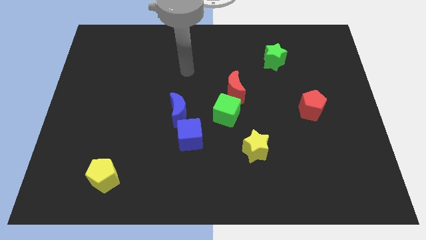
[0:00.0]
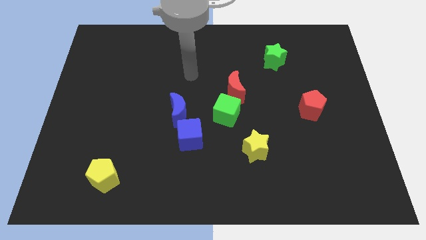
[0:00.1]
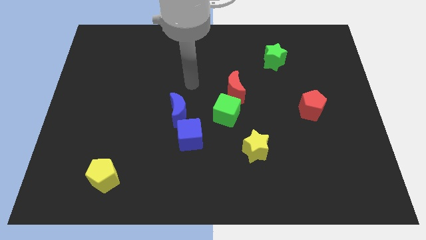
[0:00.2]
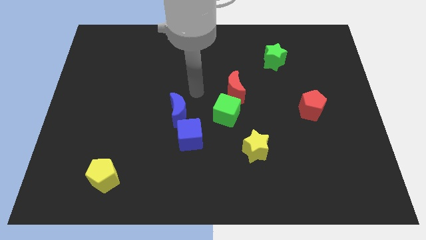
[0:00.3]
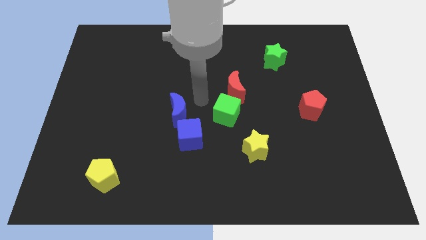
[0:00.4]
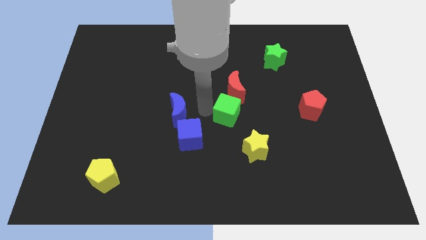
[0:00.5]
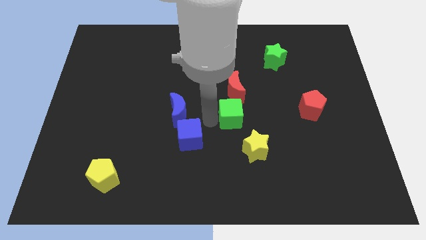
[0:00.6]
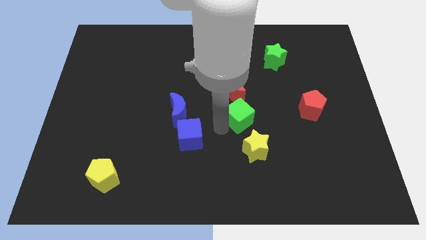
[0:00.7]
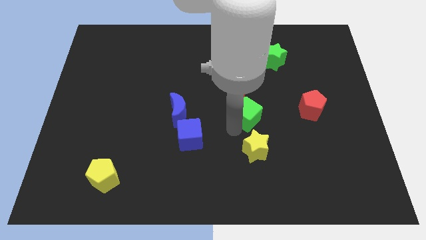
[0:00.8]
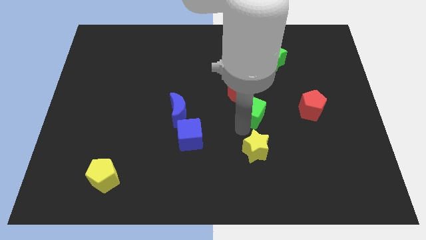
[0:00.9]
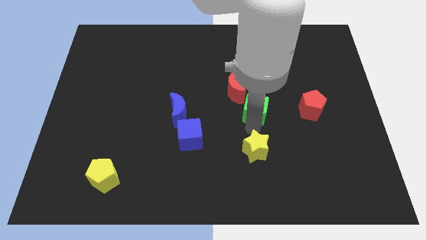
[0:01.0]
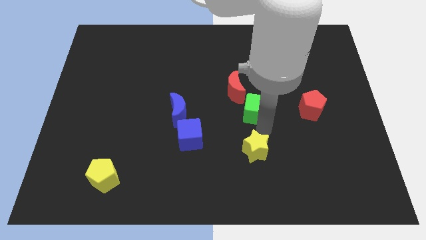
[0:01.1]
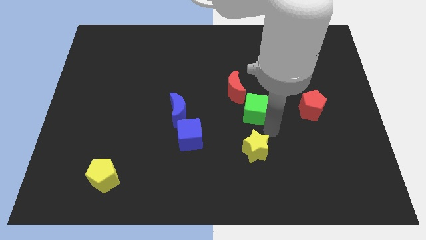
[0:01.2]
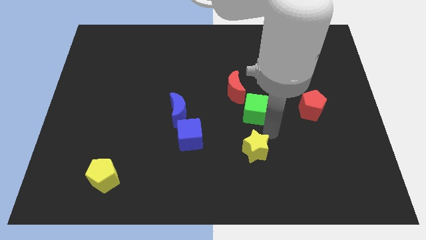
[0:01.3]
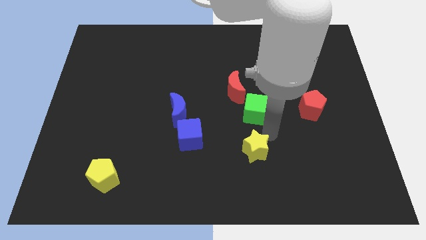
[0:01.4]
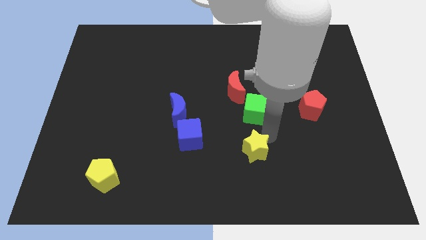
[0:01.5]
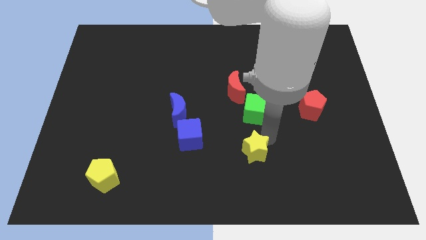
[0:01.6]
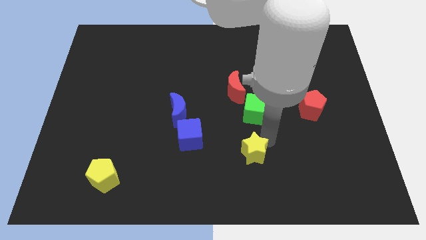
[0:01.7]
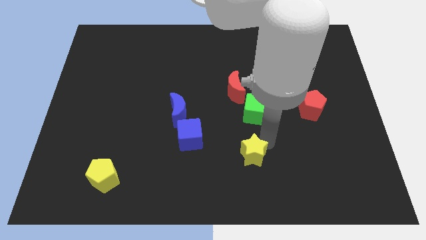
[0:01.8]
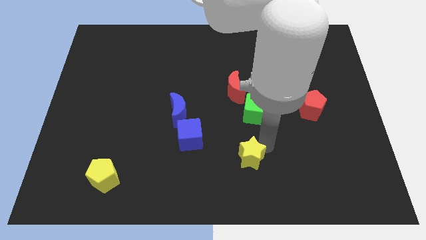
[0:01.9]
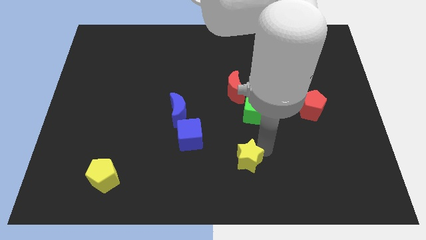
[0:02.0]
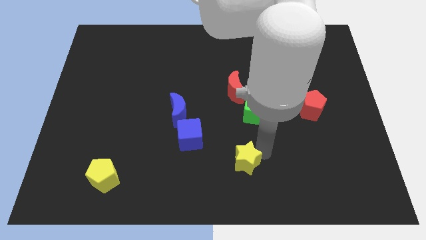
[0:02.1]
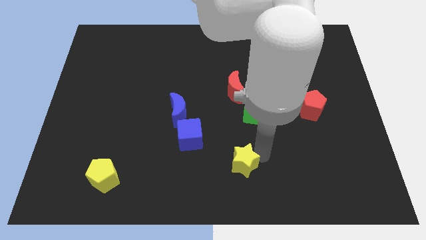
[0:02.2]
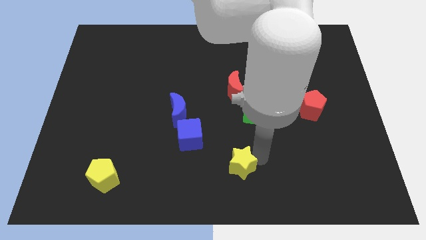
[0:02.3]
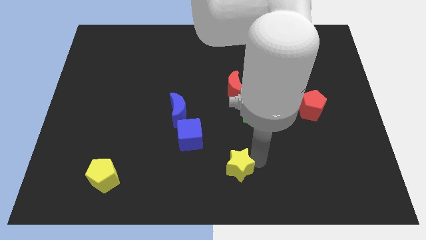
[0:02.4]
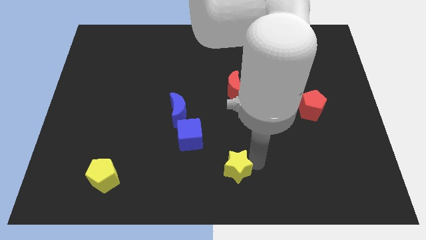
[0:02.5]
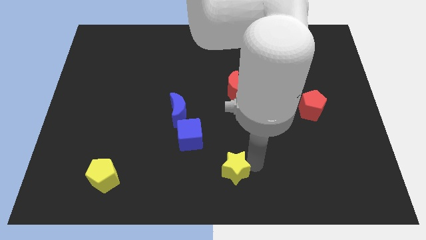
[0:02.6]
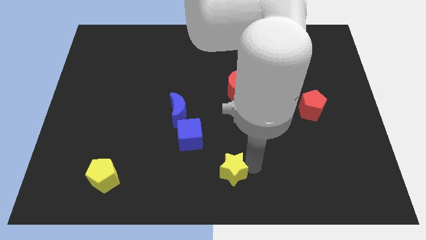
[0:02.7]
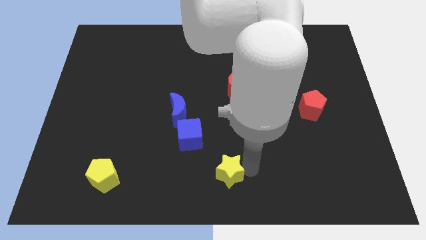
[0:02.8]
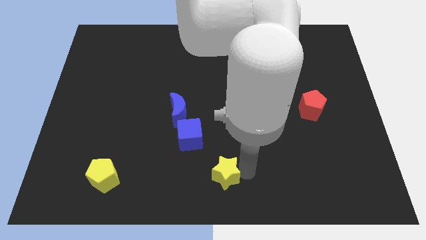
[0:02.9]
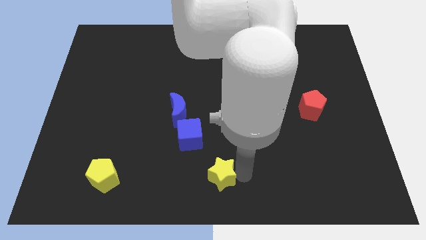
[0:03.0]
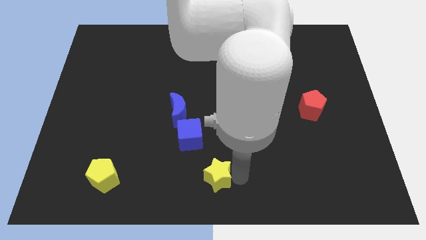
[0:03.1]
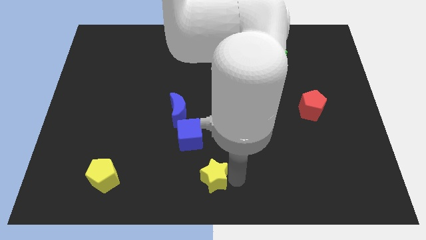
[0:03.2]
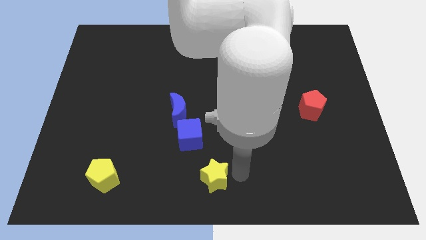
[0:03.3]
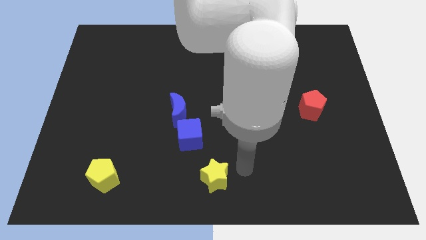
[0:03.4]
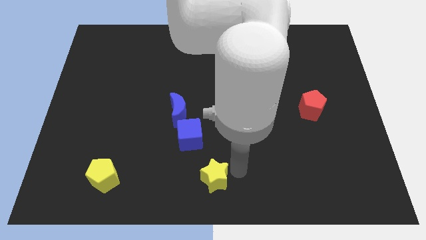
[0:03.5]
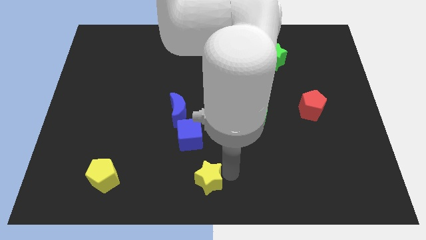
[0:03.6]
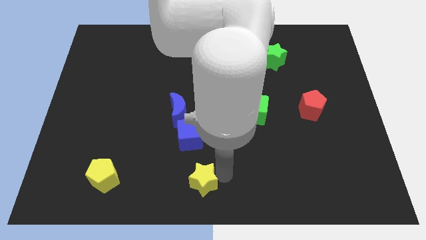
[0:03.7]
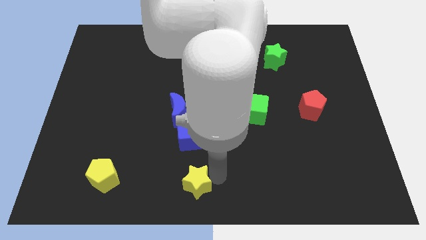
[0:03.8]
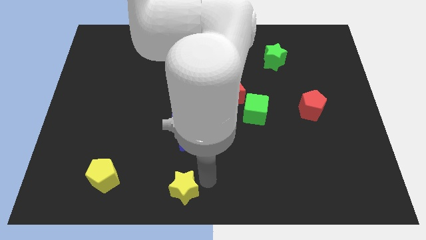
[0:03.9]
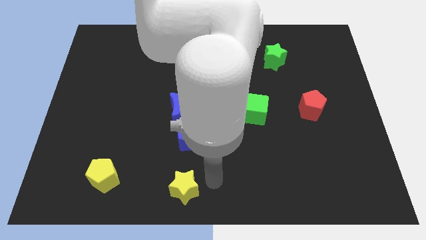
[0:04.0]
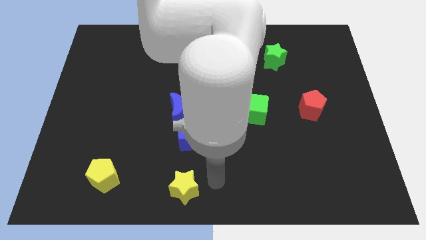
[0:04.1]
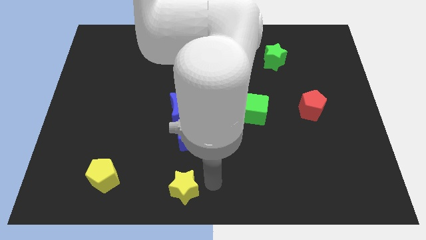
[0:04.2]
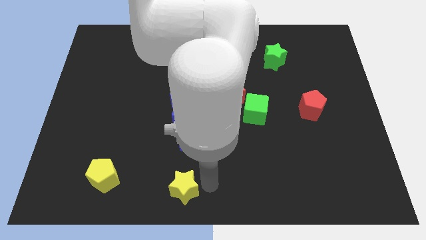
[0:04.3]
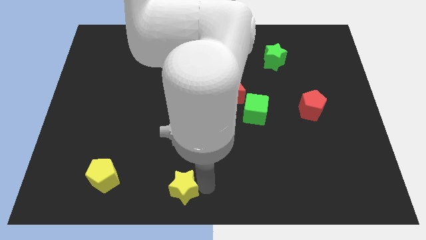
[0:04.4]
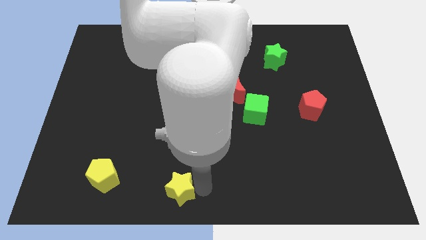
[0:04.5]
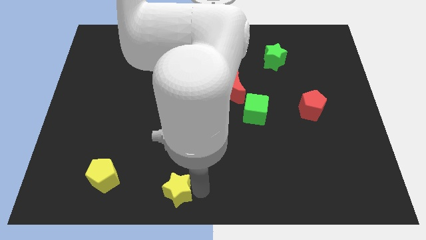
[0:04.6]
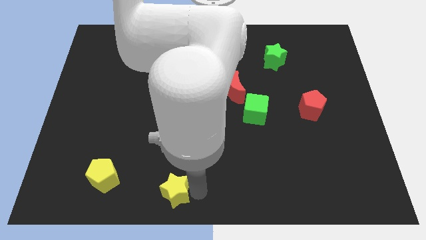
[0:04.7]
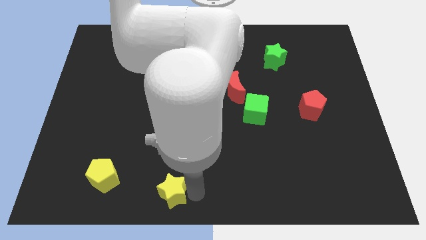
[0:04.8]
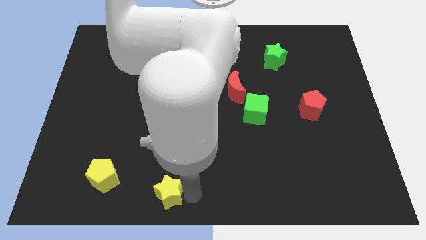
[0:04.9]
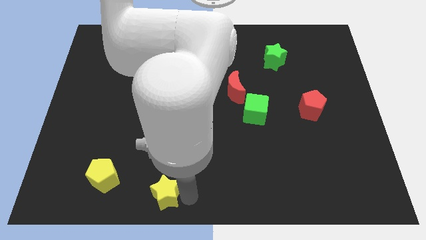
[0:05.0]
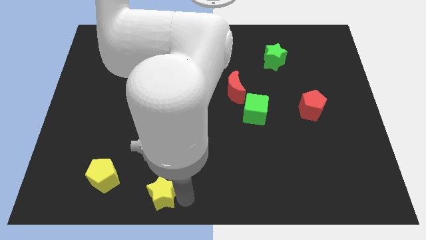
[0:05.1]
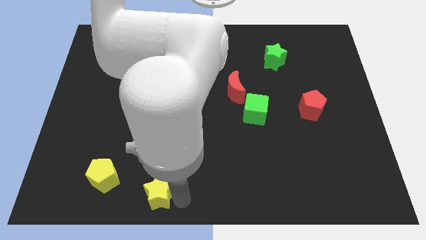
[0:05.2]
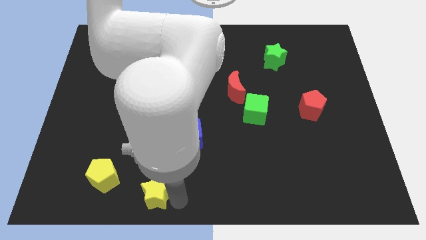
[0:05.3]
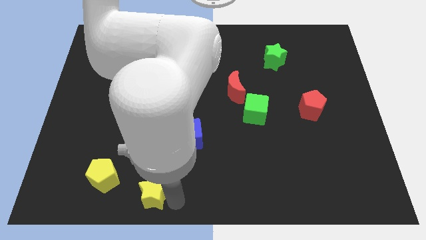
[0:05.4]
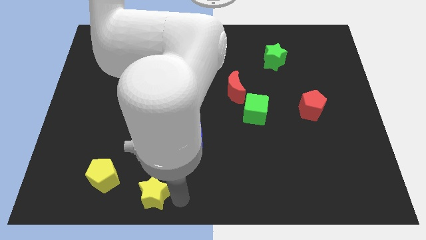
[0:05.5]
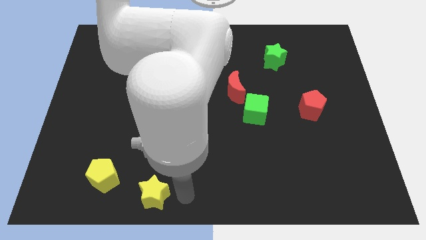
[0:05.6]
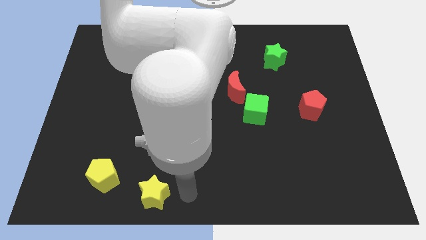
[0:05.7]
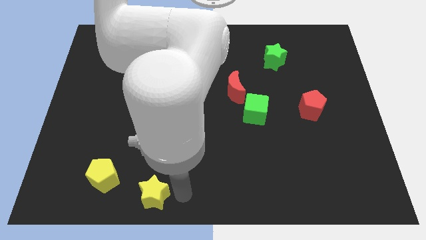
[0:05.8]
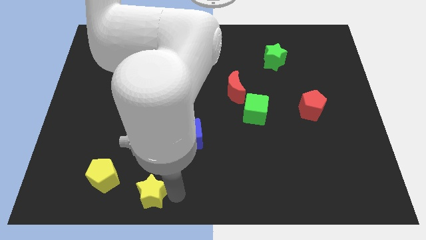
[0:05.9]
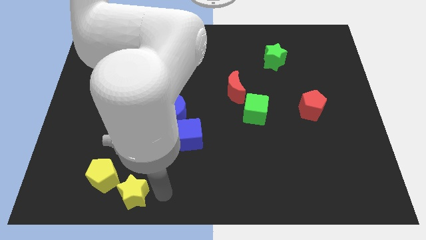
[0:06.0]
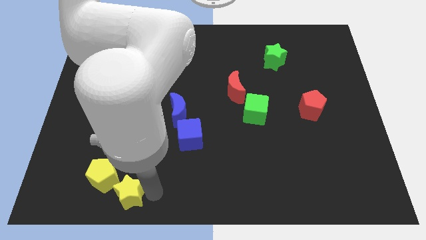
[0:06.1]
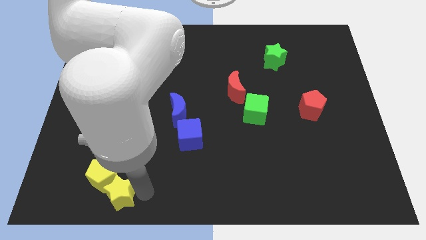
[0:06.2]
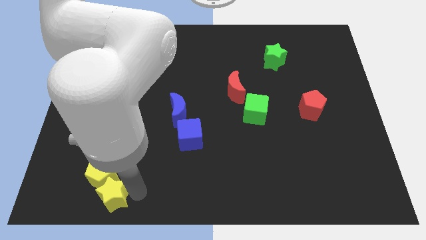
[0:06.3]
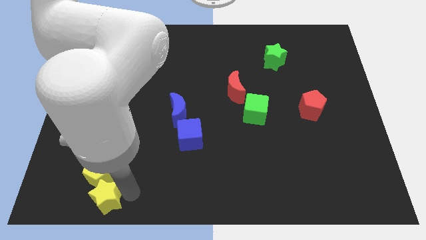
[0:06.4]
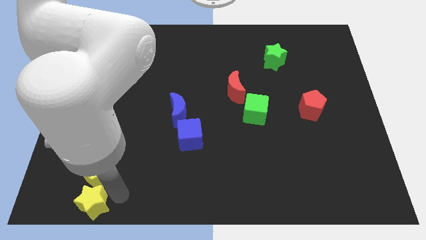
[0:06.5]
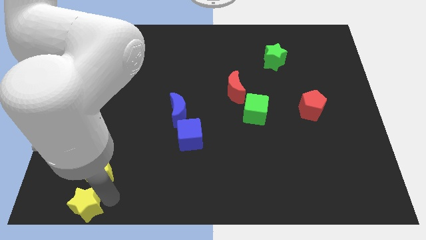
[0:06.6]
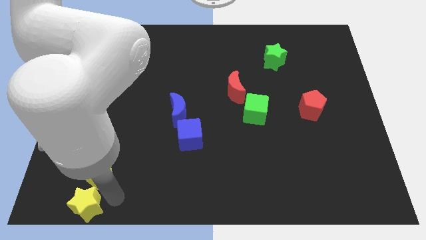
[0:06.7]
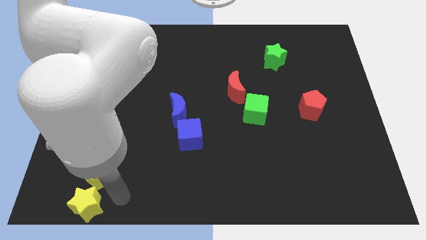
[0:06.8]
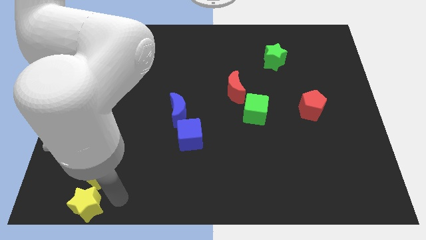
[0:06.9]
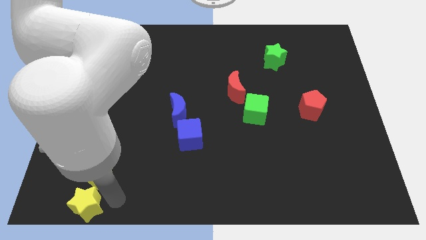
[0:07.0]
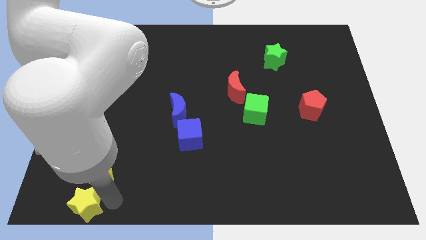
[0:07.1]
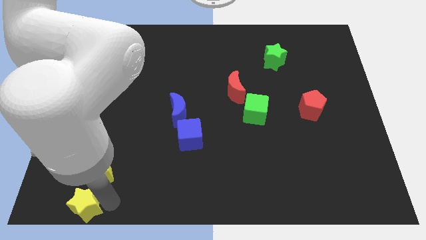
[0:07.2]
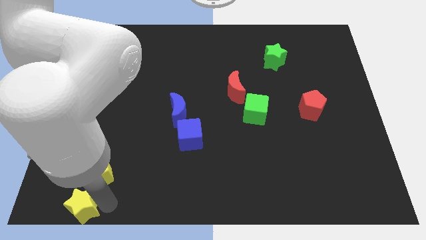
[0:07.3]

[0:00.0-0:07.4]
push the yellow star to the bottom left of the board

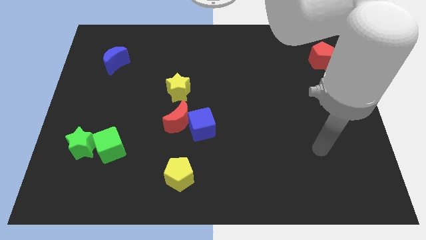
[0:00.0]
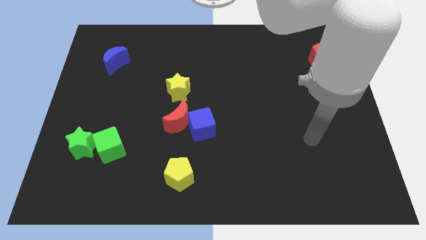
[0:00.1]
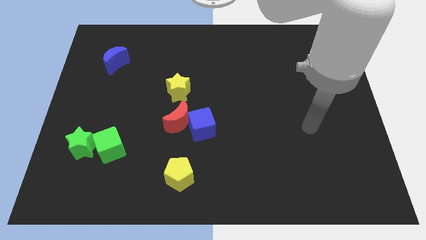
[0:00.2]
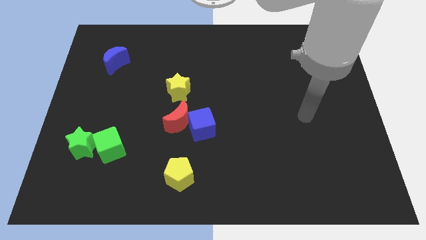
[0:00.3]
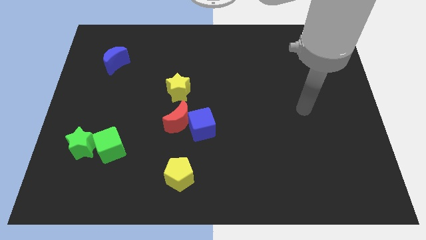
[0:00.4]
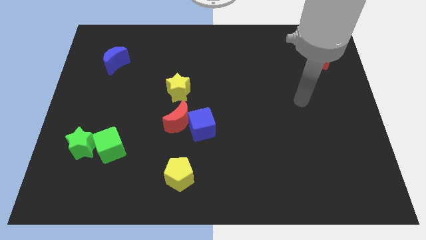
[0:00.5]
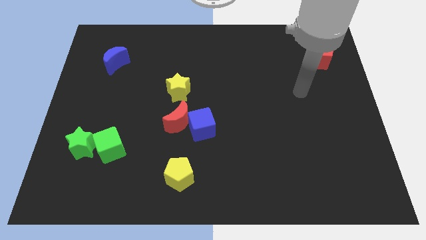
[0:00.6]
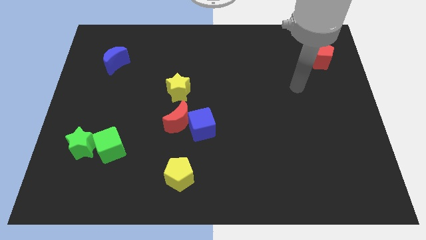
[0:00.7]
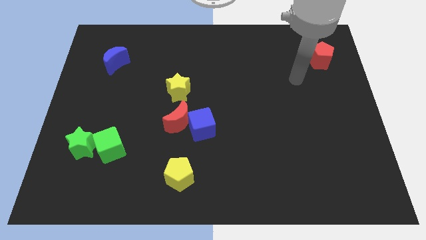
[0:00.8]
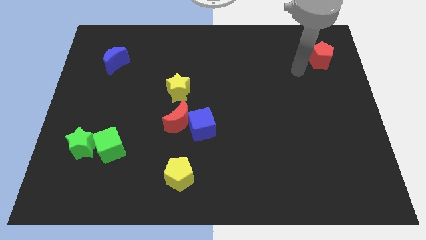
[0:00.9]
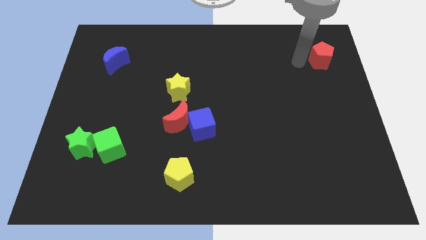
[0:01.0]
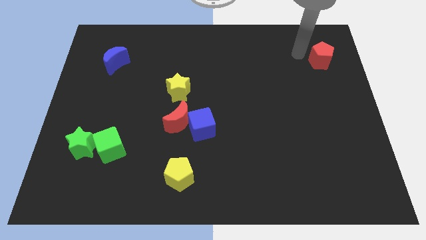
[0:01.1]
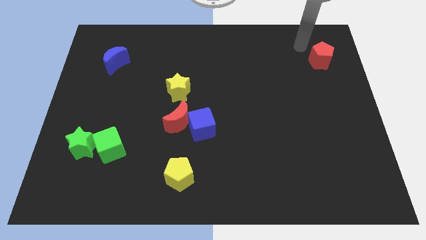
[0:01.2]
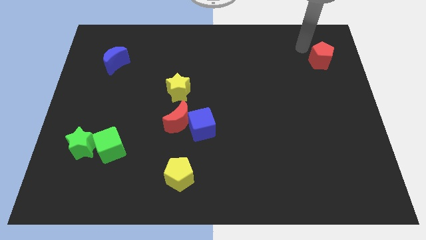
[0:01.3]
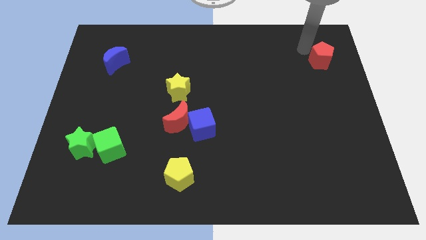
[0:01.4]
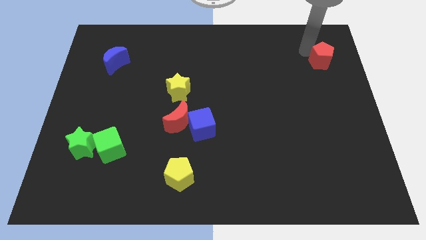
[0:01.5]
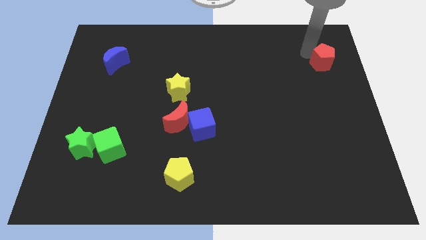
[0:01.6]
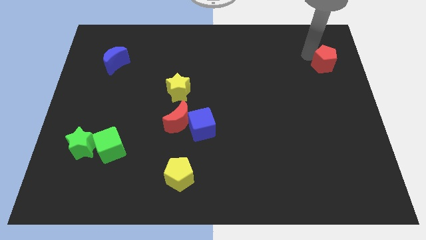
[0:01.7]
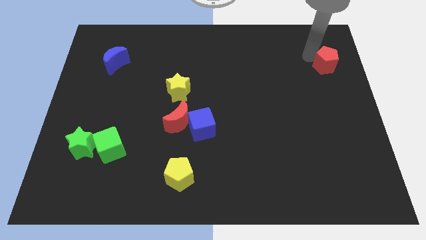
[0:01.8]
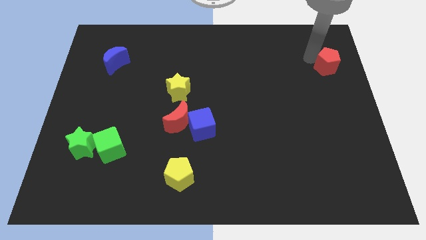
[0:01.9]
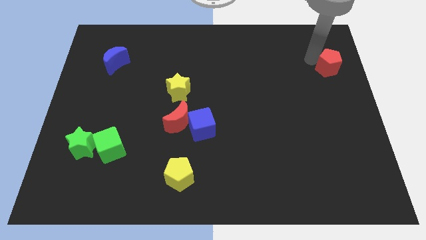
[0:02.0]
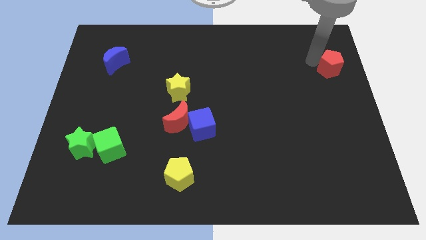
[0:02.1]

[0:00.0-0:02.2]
slide the red pentagon to the right side of the board
